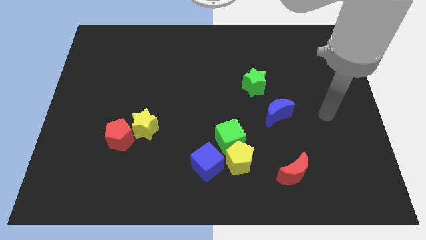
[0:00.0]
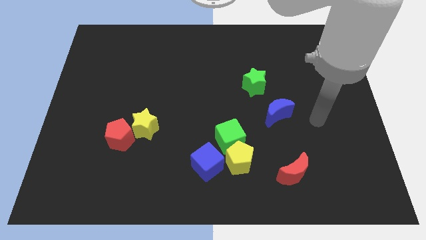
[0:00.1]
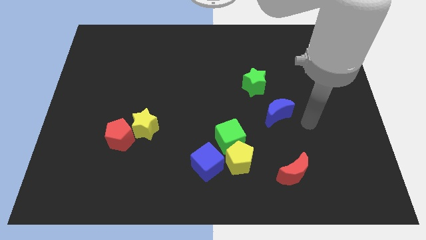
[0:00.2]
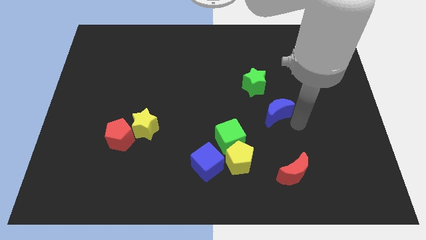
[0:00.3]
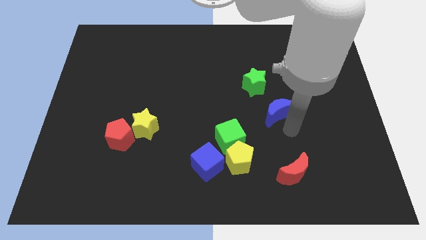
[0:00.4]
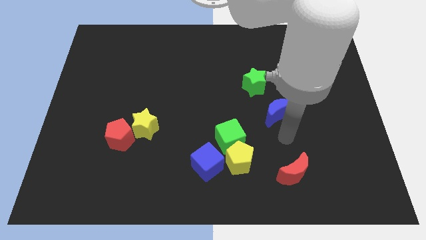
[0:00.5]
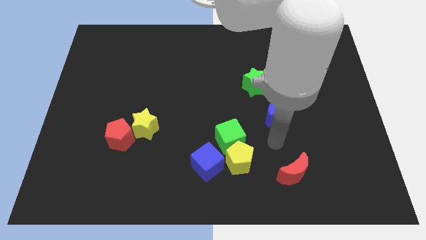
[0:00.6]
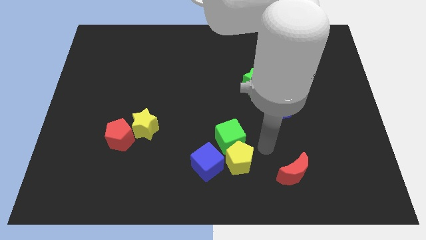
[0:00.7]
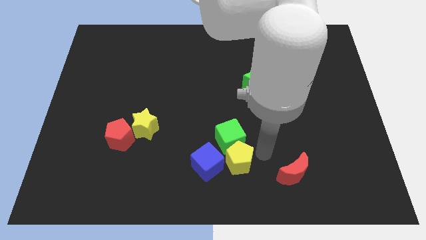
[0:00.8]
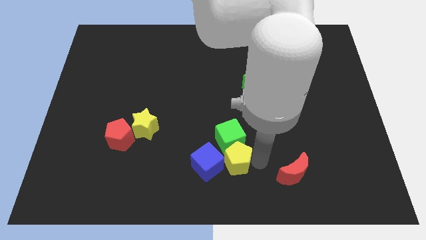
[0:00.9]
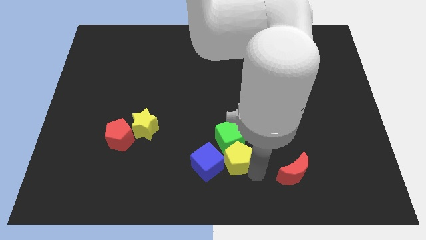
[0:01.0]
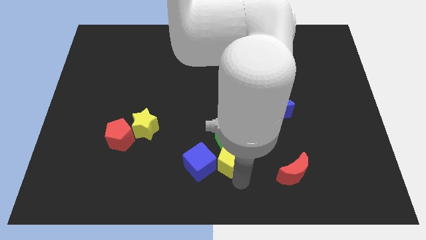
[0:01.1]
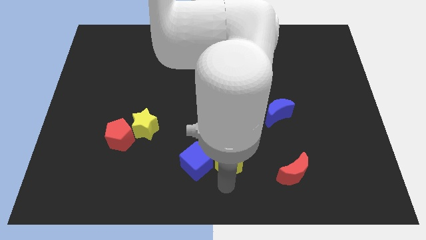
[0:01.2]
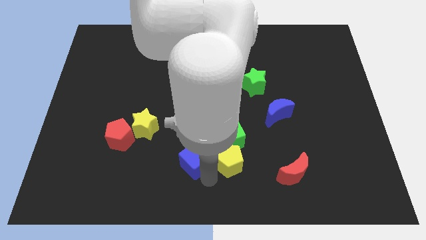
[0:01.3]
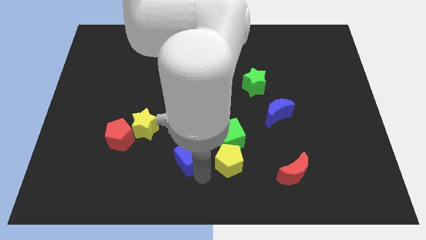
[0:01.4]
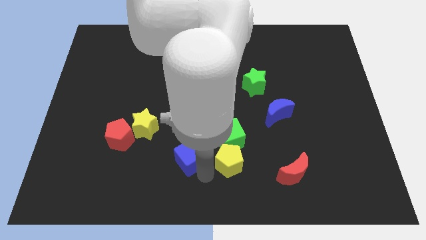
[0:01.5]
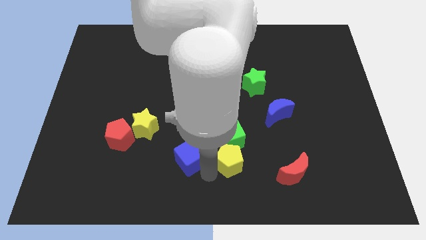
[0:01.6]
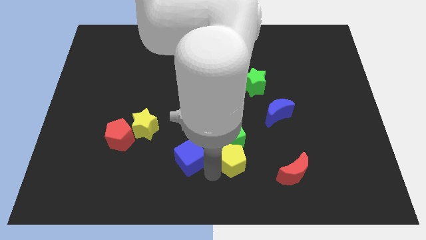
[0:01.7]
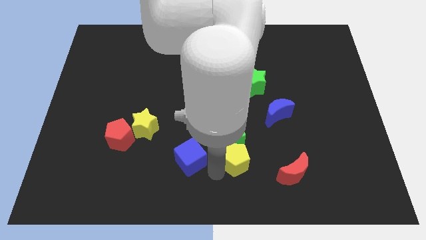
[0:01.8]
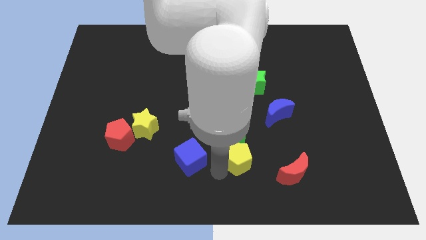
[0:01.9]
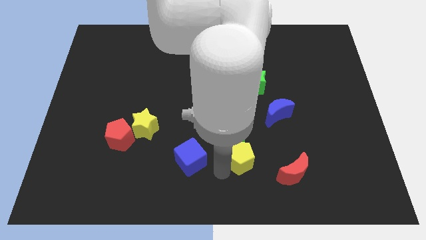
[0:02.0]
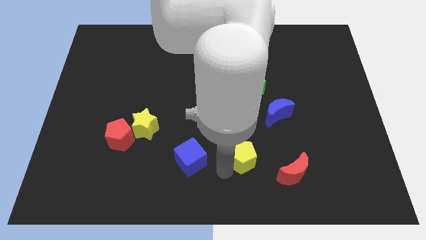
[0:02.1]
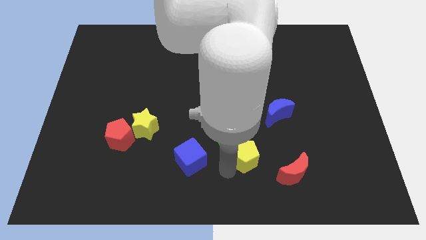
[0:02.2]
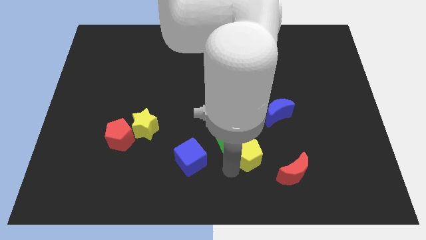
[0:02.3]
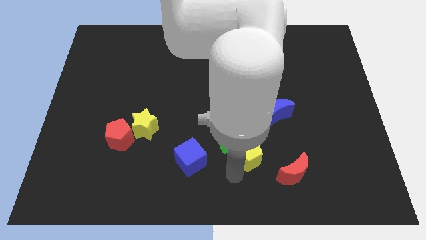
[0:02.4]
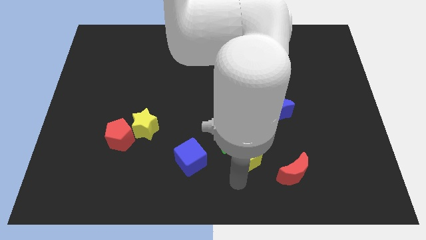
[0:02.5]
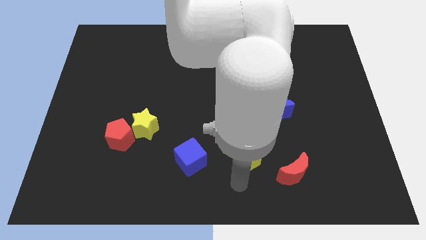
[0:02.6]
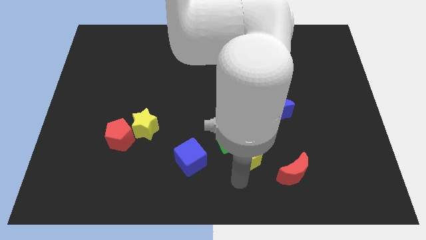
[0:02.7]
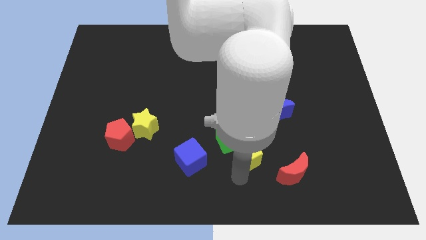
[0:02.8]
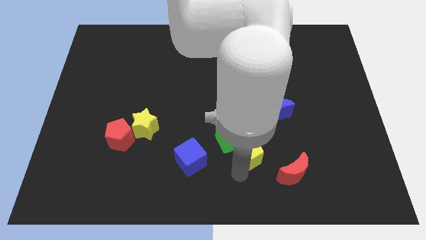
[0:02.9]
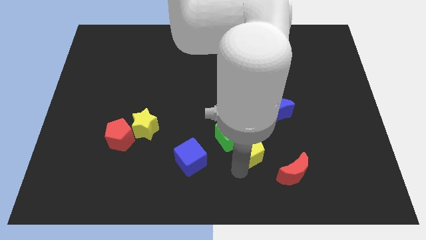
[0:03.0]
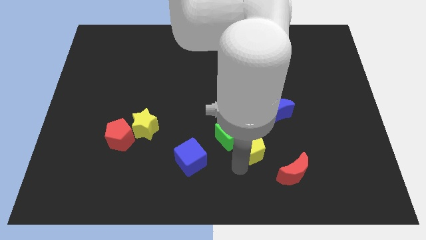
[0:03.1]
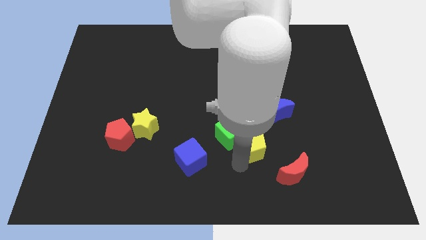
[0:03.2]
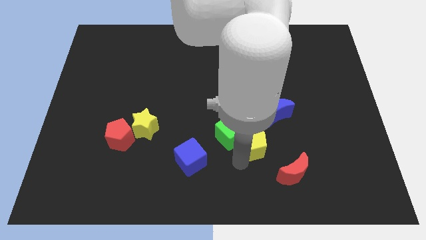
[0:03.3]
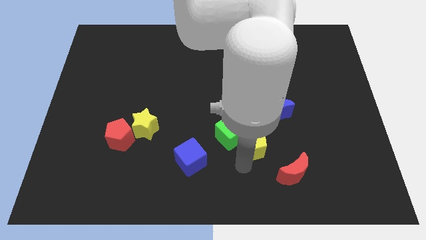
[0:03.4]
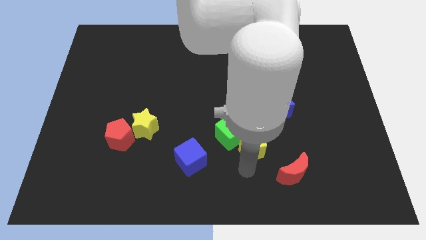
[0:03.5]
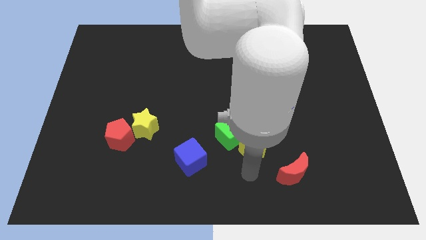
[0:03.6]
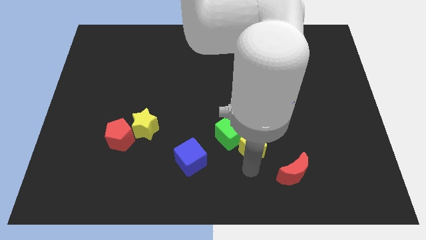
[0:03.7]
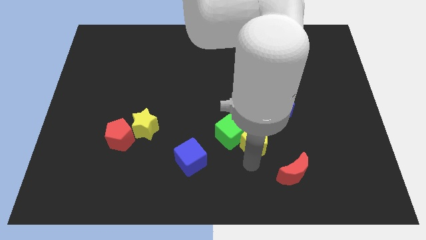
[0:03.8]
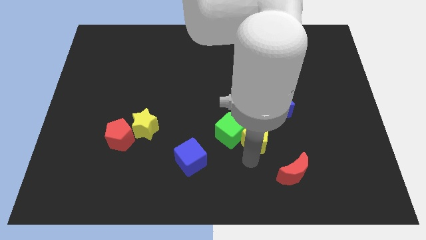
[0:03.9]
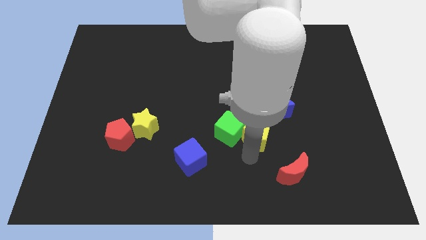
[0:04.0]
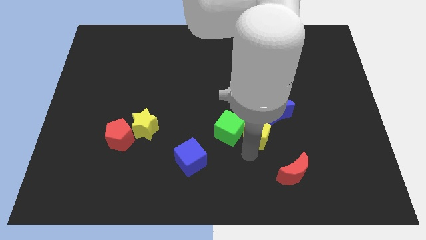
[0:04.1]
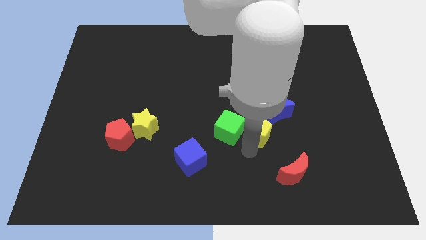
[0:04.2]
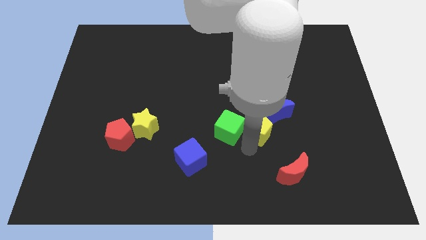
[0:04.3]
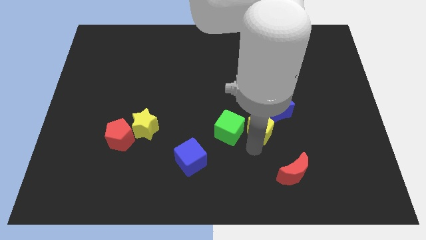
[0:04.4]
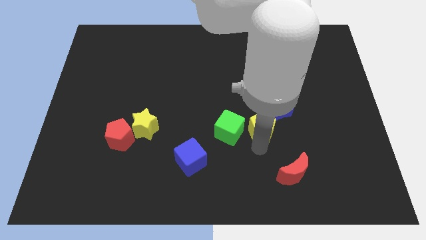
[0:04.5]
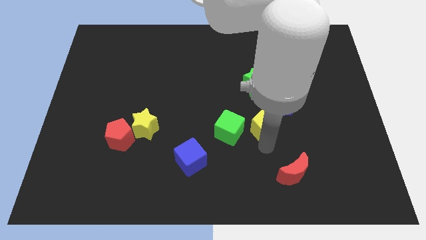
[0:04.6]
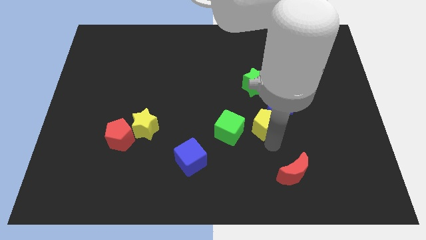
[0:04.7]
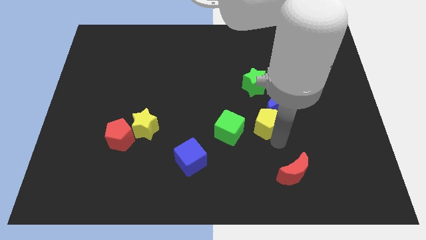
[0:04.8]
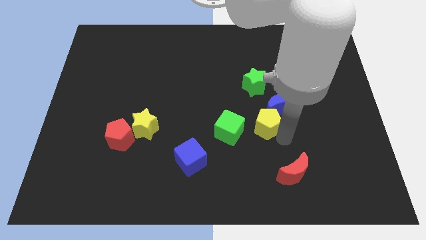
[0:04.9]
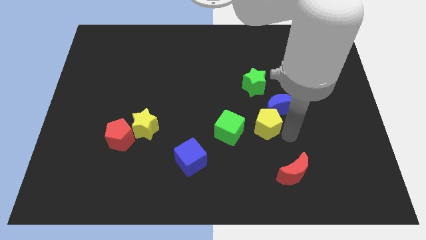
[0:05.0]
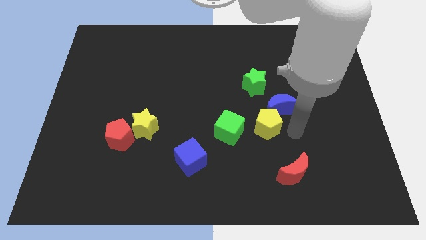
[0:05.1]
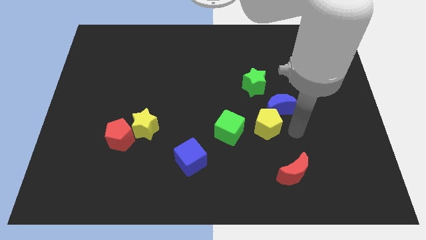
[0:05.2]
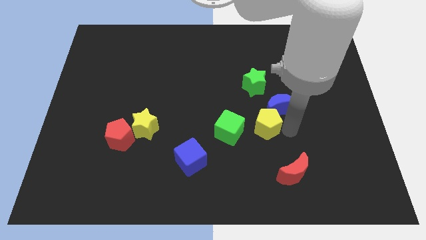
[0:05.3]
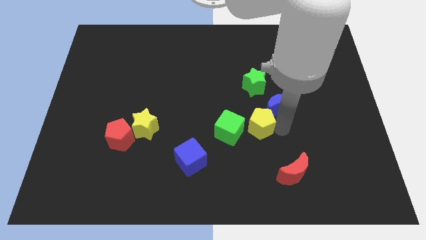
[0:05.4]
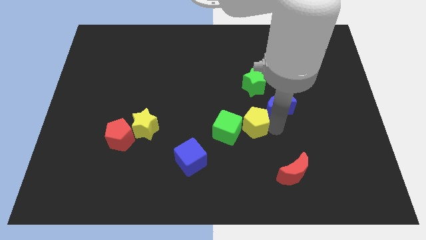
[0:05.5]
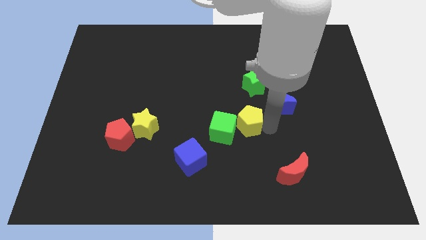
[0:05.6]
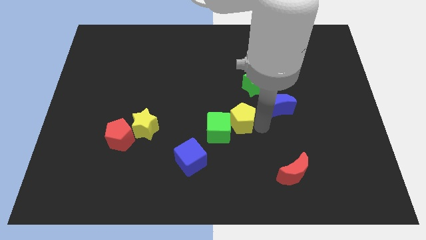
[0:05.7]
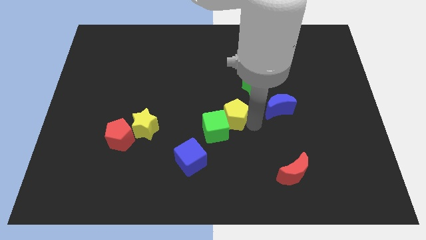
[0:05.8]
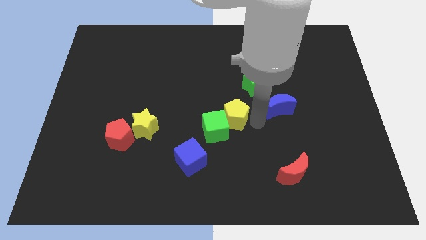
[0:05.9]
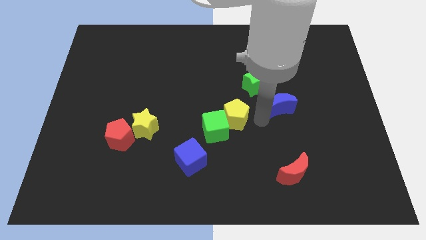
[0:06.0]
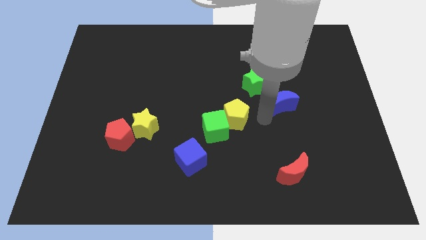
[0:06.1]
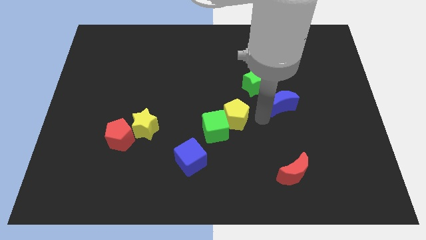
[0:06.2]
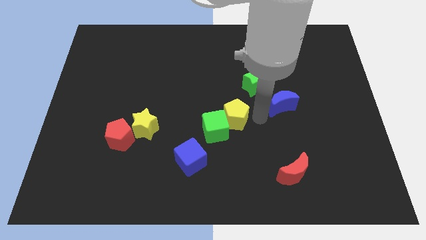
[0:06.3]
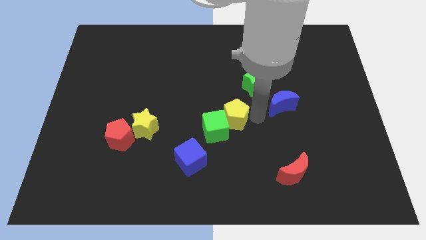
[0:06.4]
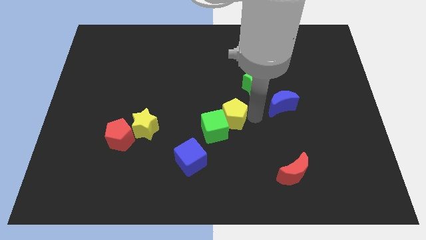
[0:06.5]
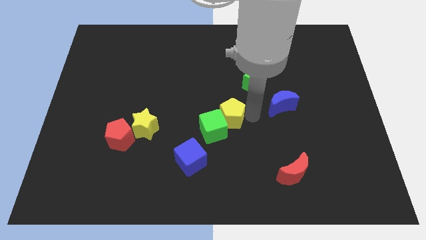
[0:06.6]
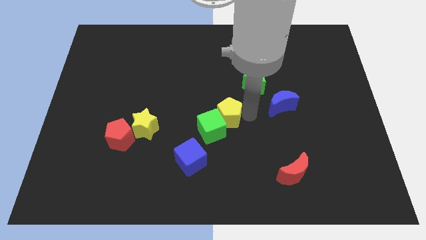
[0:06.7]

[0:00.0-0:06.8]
slightly move the yellow pentagon diagonally upwards and left

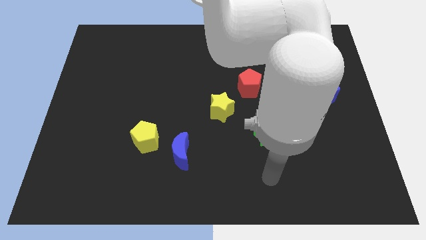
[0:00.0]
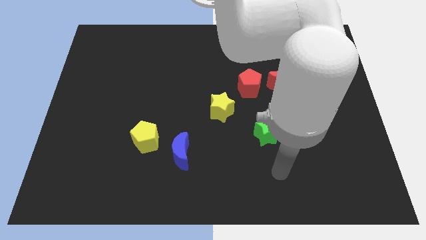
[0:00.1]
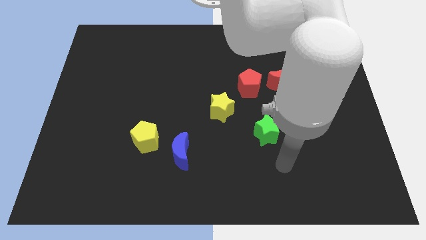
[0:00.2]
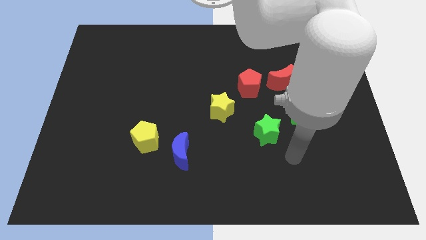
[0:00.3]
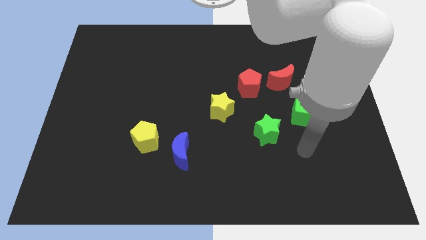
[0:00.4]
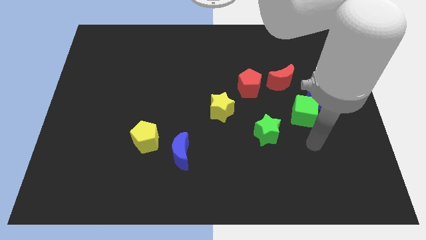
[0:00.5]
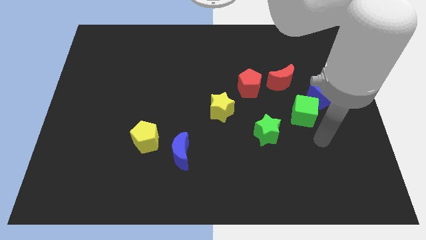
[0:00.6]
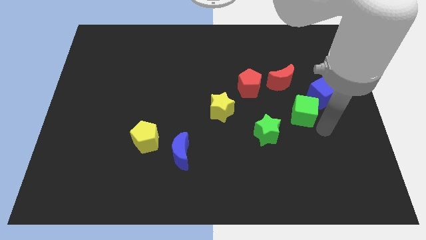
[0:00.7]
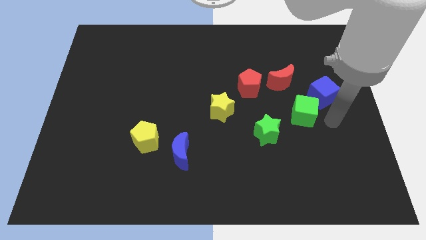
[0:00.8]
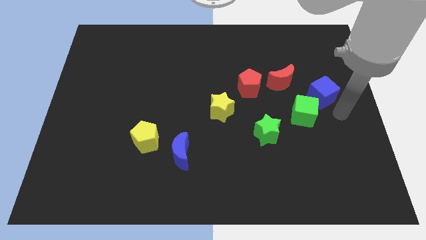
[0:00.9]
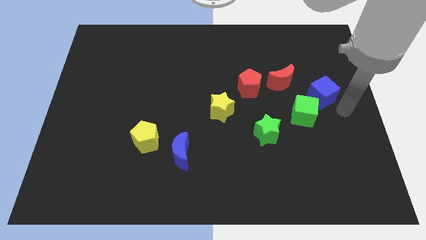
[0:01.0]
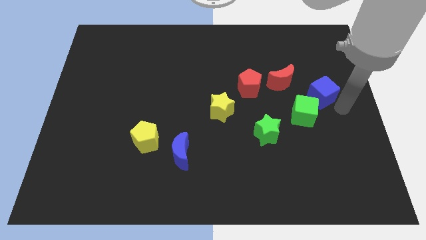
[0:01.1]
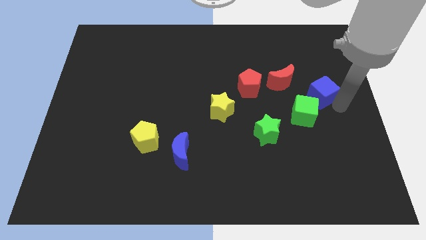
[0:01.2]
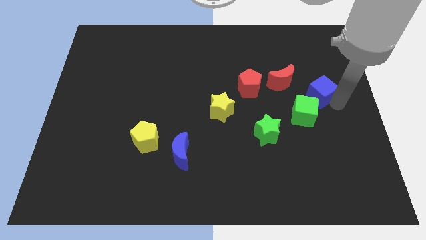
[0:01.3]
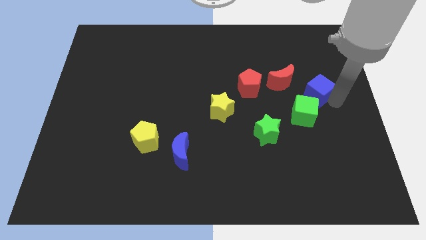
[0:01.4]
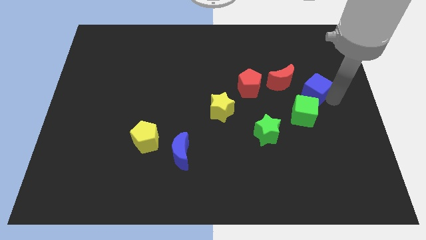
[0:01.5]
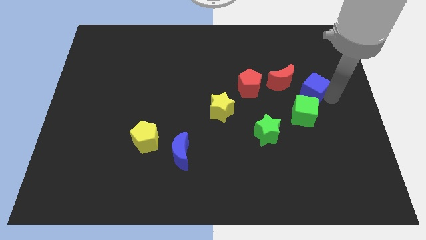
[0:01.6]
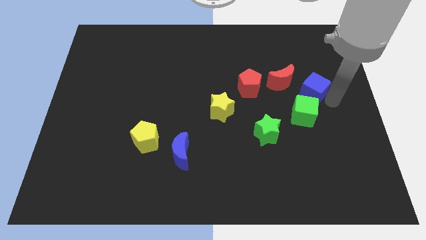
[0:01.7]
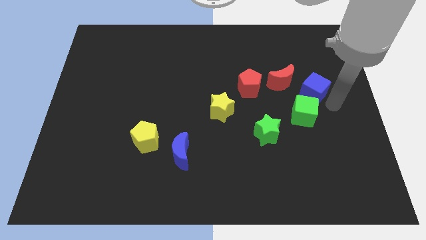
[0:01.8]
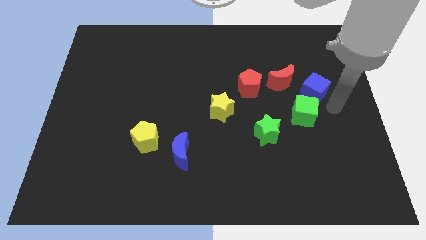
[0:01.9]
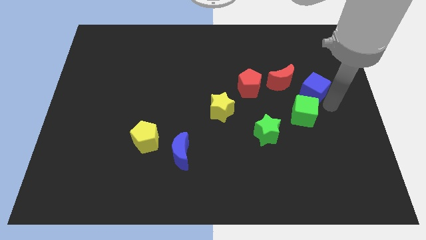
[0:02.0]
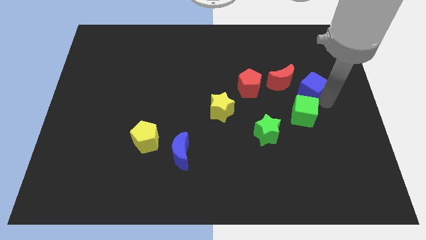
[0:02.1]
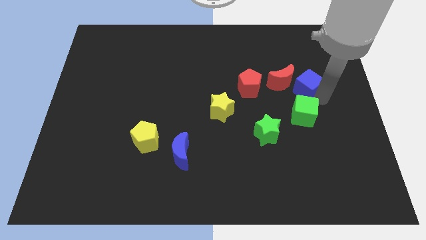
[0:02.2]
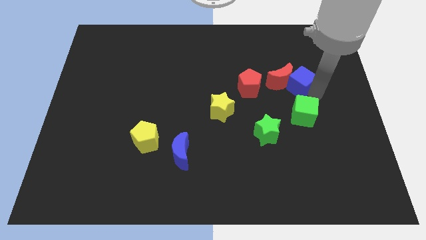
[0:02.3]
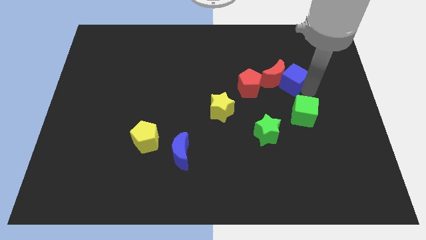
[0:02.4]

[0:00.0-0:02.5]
slightly push the blue cube up and left
